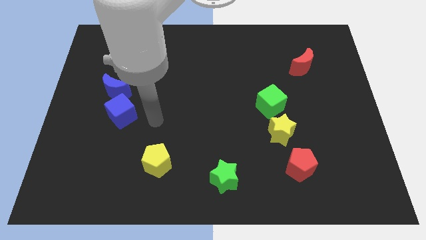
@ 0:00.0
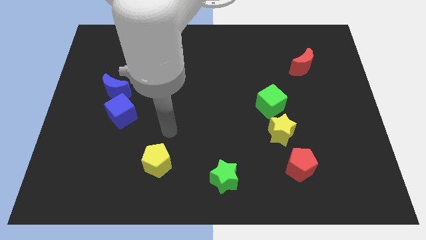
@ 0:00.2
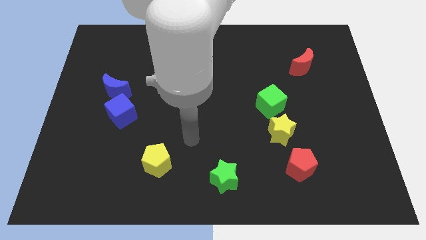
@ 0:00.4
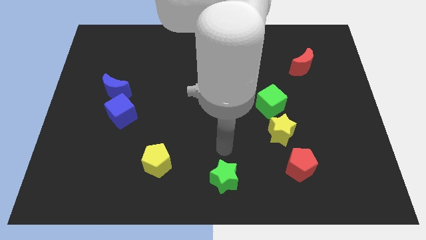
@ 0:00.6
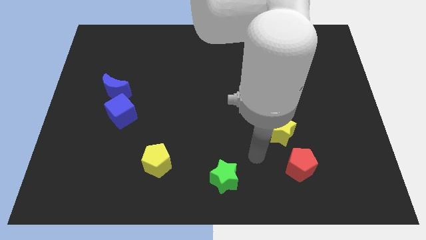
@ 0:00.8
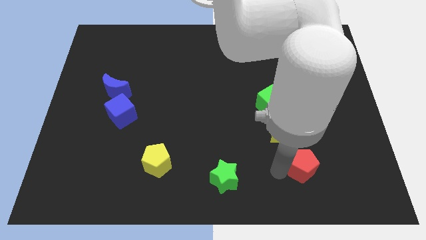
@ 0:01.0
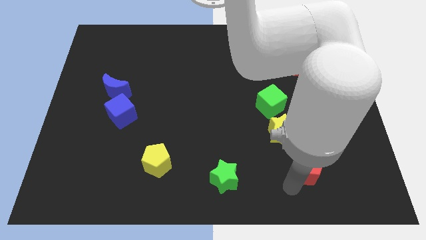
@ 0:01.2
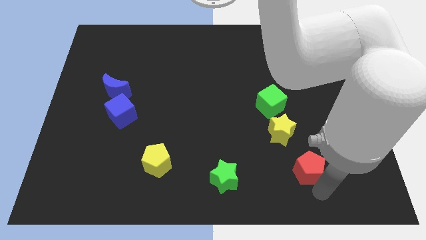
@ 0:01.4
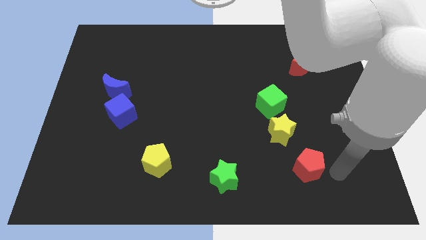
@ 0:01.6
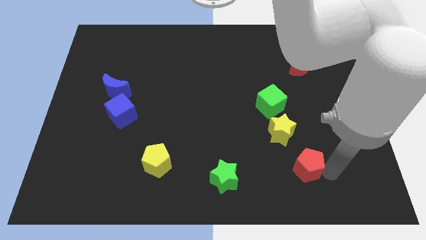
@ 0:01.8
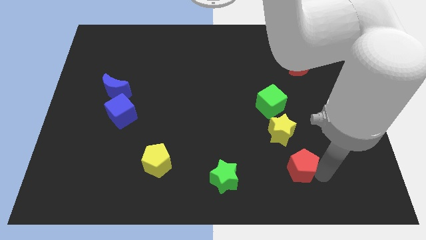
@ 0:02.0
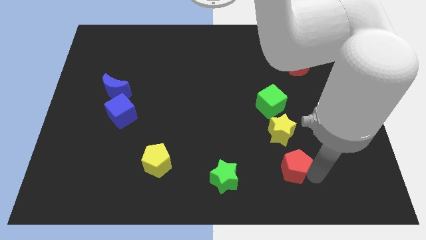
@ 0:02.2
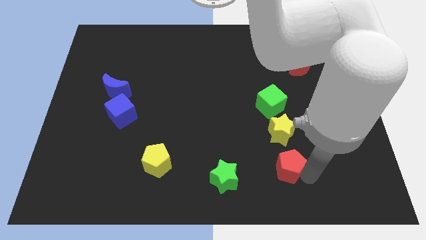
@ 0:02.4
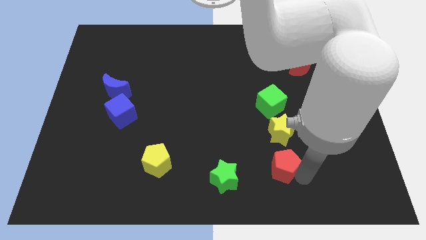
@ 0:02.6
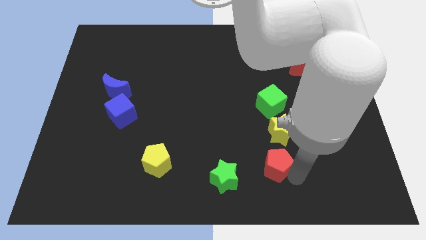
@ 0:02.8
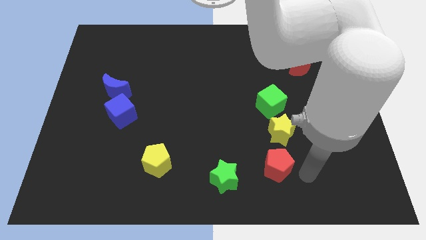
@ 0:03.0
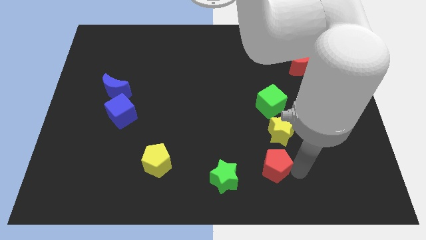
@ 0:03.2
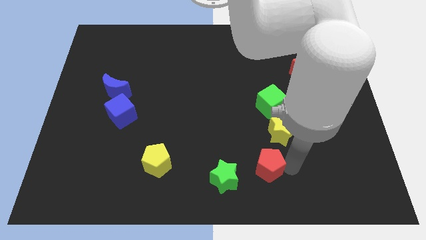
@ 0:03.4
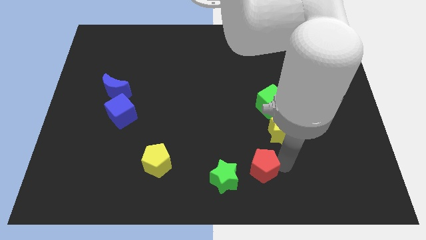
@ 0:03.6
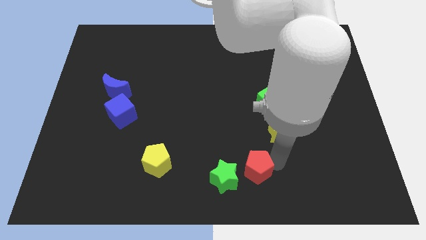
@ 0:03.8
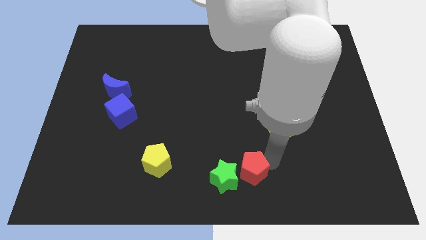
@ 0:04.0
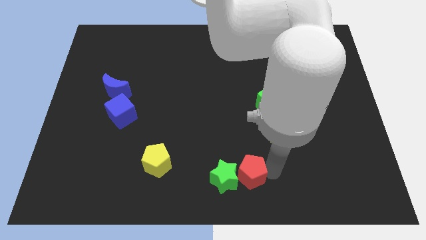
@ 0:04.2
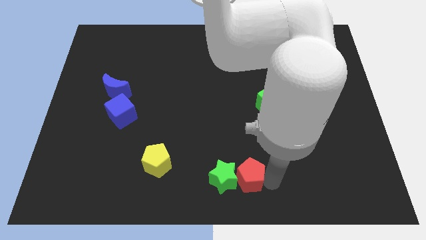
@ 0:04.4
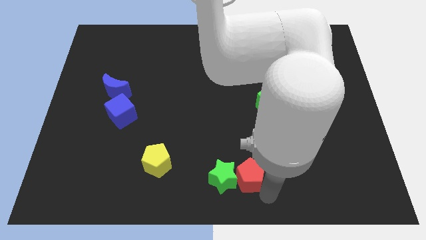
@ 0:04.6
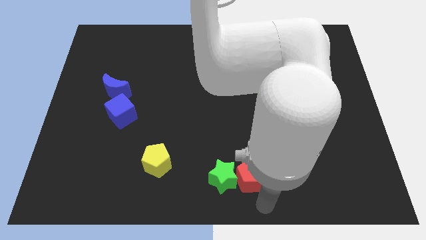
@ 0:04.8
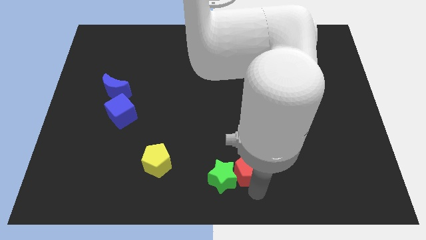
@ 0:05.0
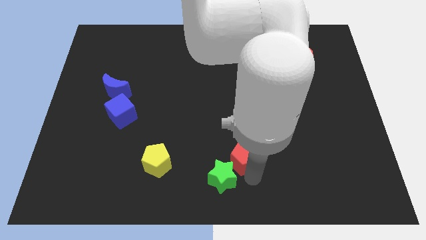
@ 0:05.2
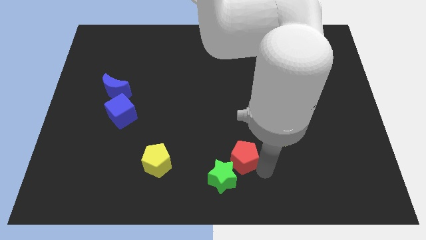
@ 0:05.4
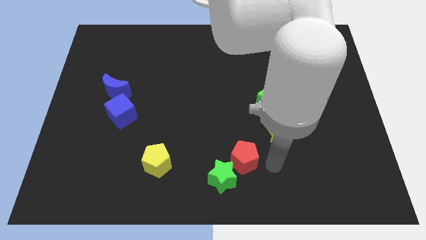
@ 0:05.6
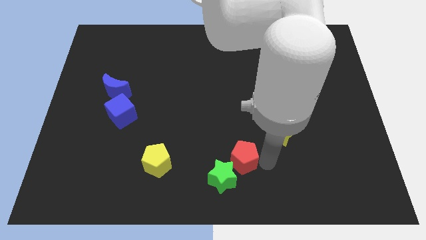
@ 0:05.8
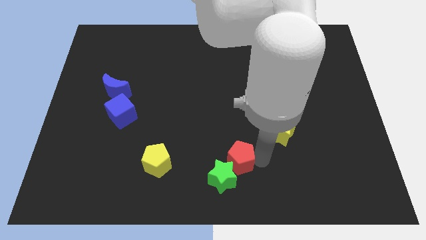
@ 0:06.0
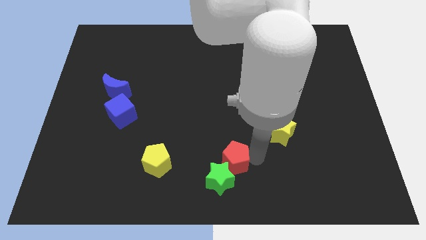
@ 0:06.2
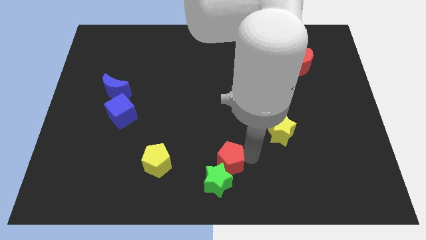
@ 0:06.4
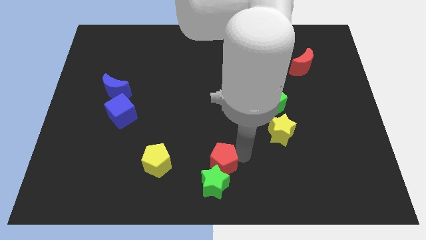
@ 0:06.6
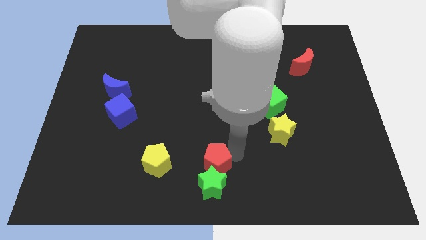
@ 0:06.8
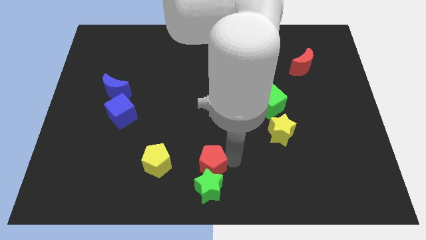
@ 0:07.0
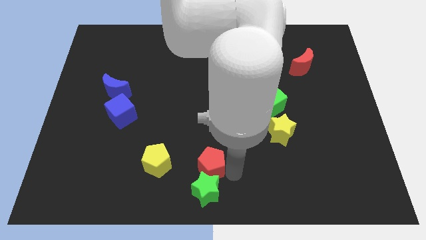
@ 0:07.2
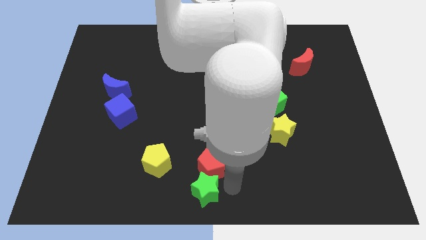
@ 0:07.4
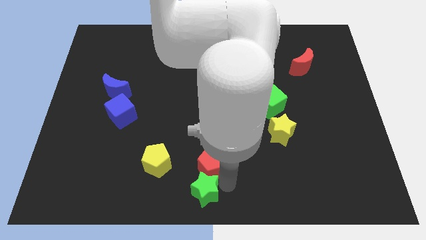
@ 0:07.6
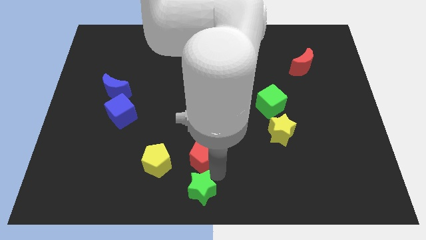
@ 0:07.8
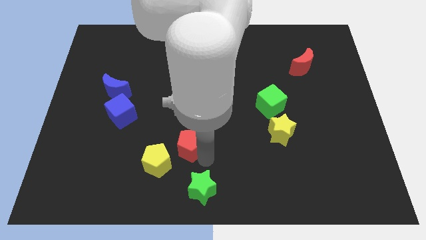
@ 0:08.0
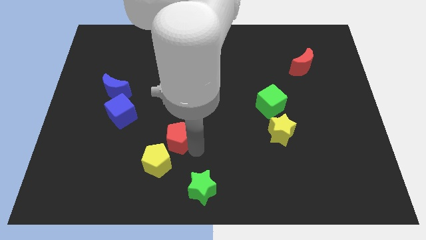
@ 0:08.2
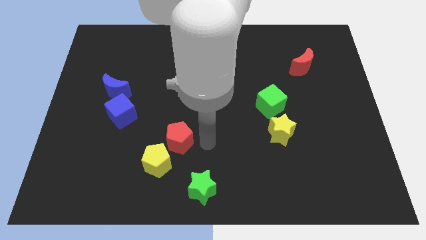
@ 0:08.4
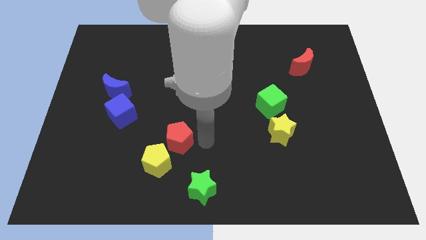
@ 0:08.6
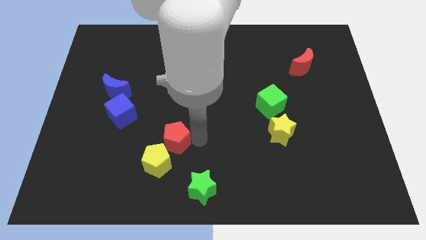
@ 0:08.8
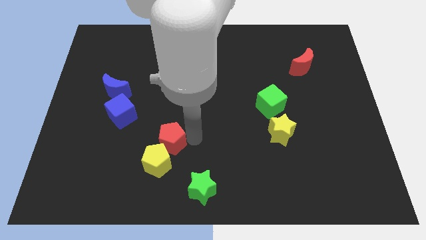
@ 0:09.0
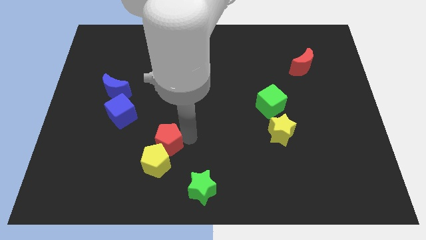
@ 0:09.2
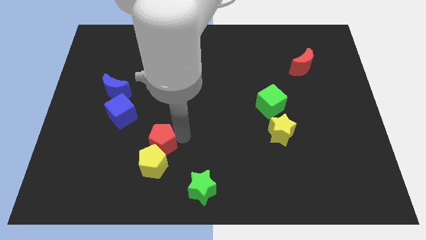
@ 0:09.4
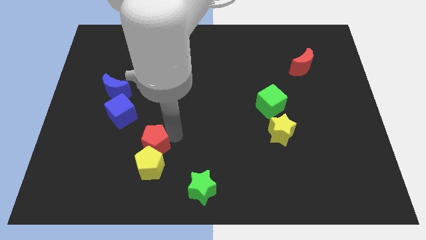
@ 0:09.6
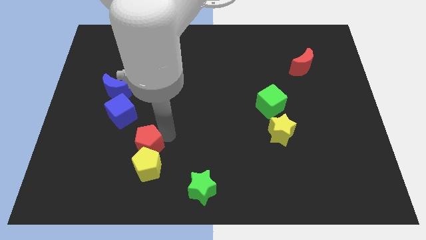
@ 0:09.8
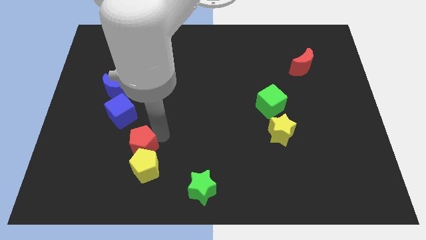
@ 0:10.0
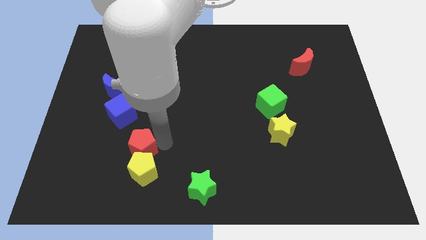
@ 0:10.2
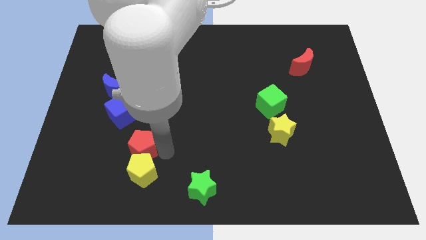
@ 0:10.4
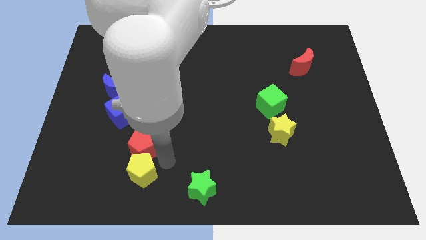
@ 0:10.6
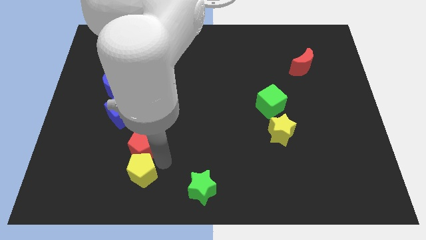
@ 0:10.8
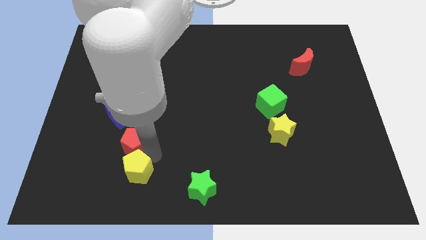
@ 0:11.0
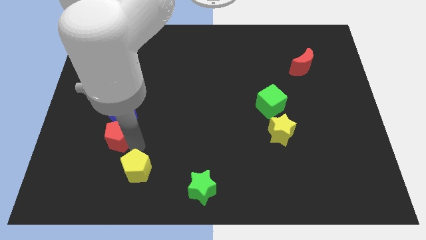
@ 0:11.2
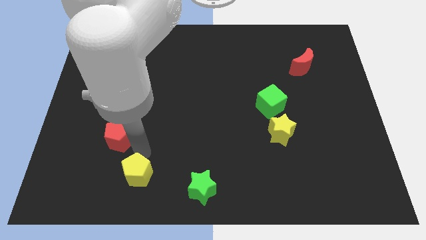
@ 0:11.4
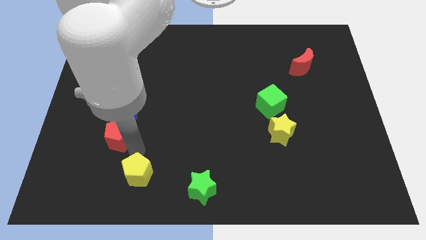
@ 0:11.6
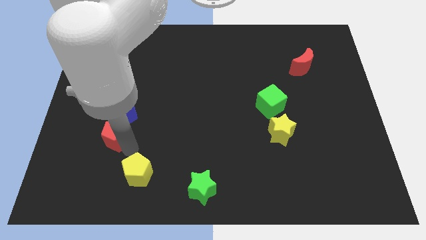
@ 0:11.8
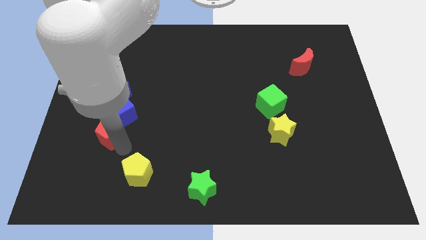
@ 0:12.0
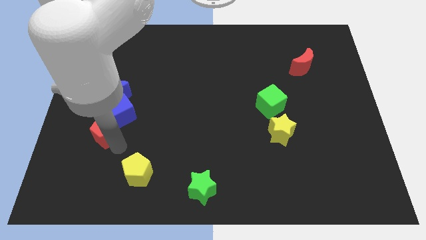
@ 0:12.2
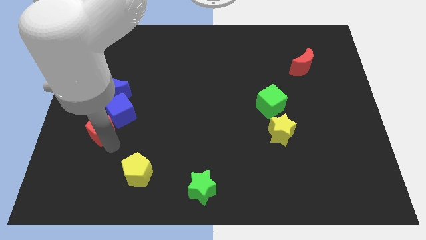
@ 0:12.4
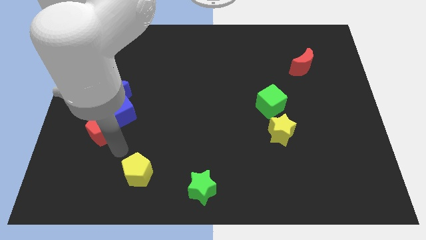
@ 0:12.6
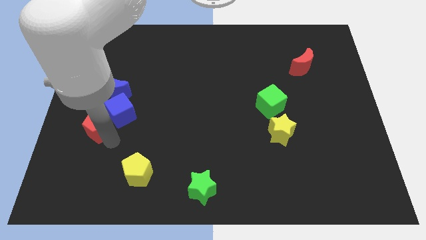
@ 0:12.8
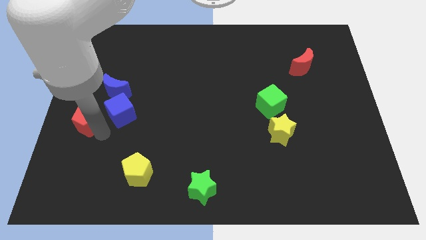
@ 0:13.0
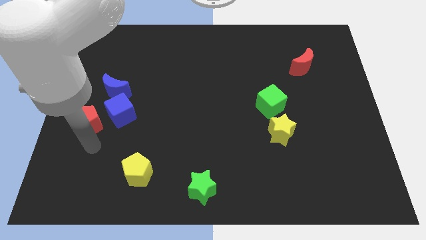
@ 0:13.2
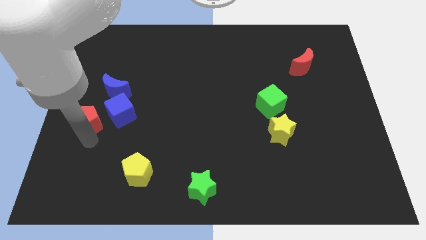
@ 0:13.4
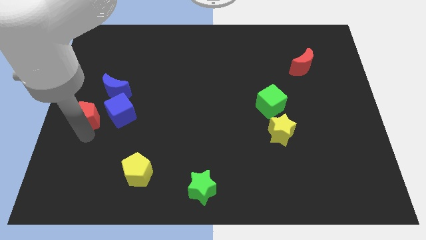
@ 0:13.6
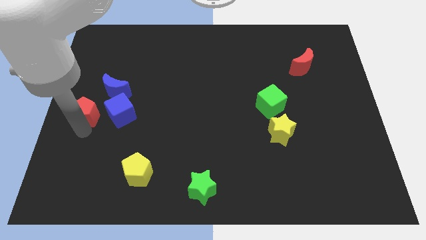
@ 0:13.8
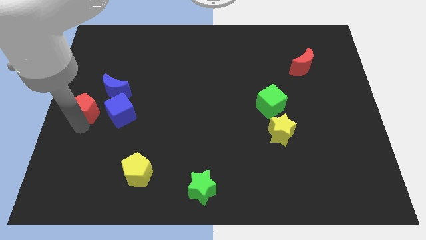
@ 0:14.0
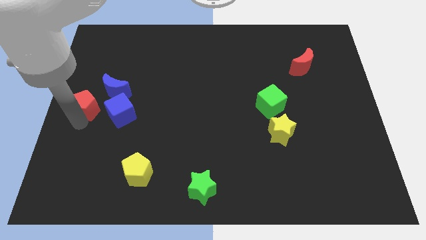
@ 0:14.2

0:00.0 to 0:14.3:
move the red pentagon diagonally up and to the left of the blue cube
